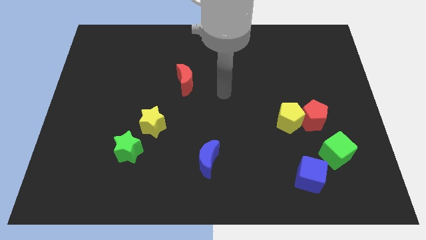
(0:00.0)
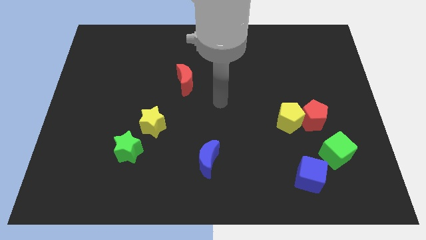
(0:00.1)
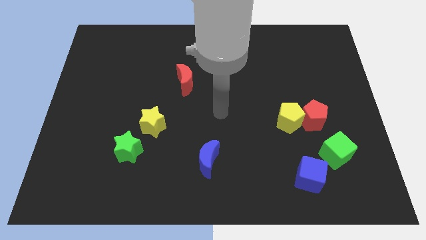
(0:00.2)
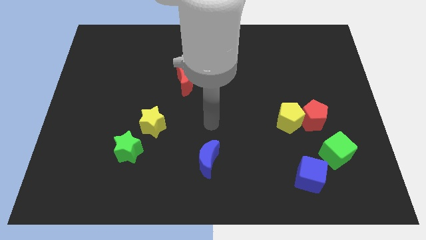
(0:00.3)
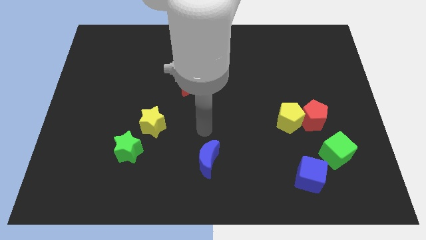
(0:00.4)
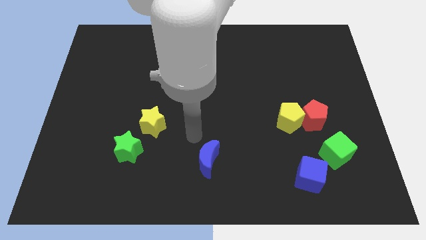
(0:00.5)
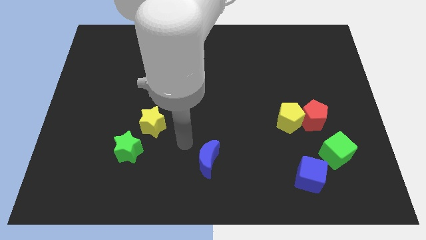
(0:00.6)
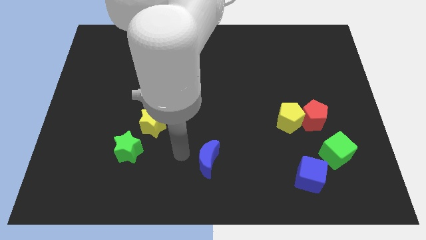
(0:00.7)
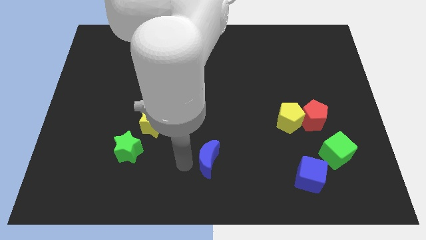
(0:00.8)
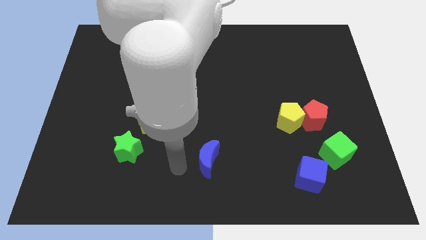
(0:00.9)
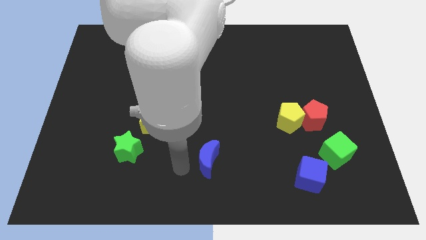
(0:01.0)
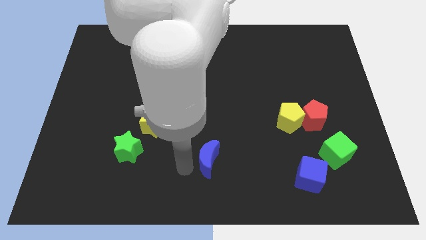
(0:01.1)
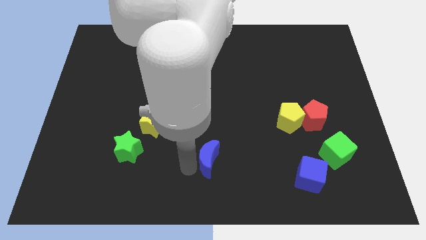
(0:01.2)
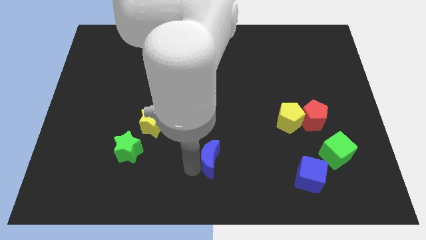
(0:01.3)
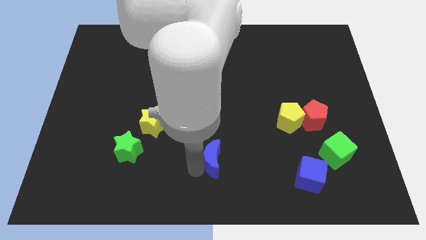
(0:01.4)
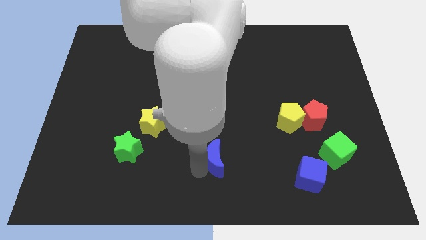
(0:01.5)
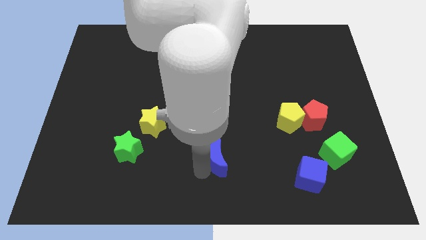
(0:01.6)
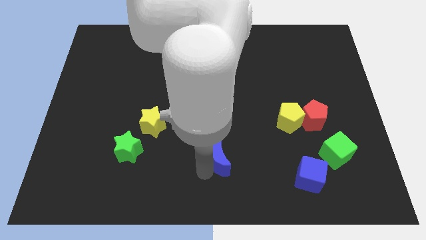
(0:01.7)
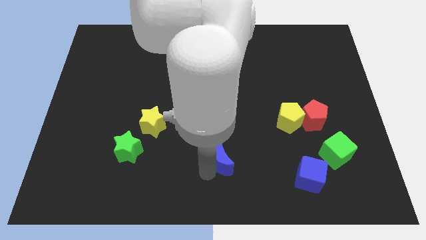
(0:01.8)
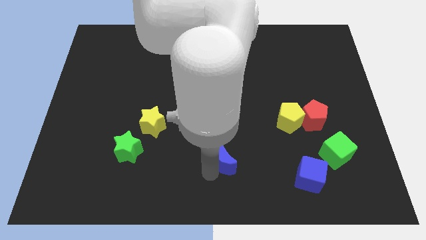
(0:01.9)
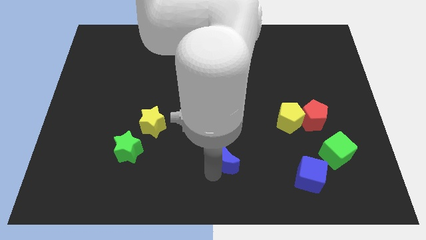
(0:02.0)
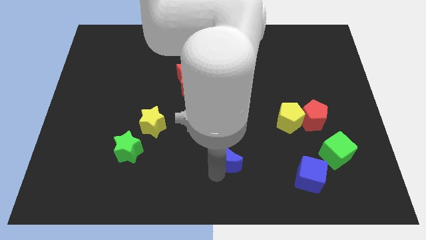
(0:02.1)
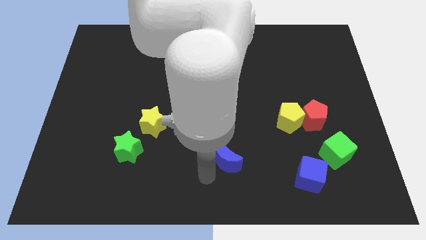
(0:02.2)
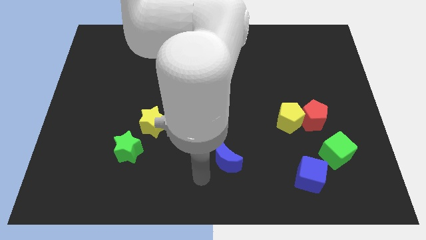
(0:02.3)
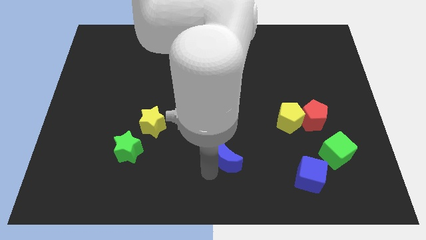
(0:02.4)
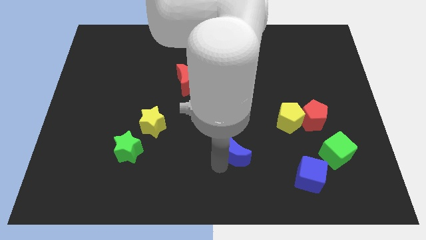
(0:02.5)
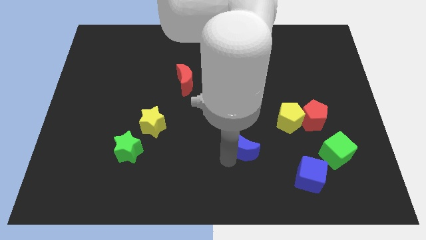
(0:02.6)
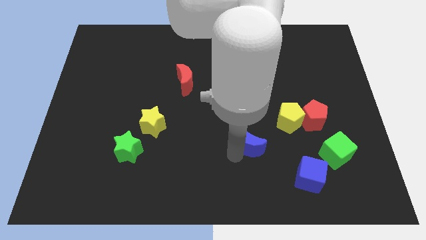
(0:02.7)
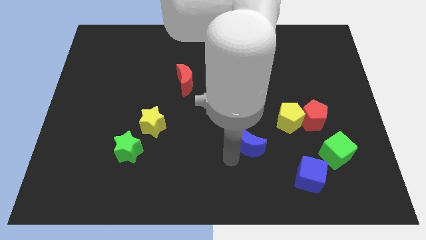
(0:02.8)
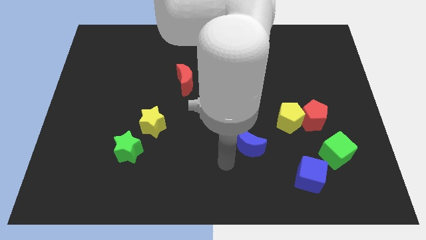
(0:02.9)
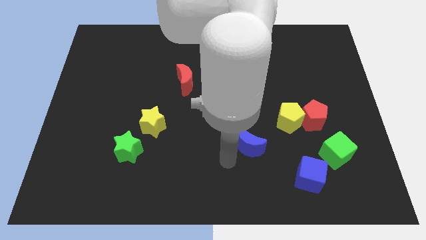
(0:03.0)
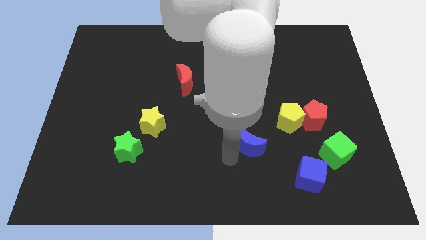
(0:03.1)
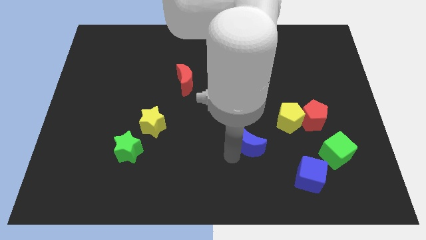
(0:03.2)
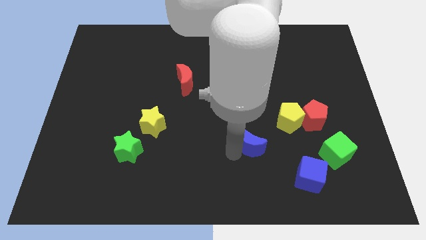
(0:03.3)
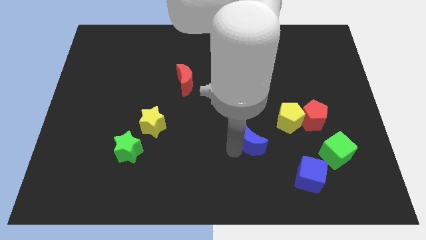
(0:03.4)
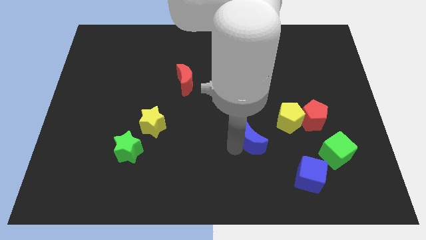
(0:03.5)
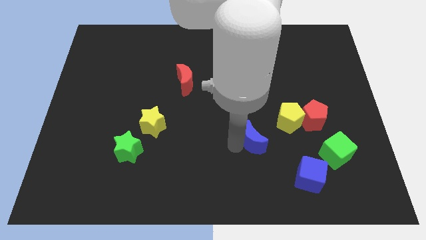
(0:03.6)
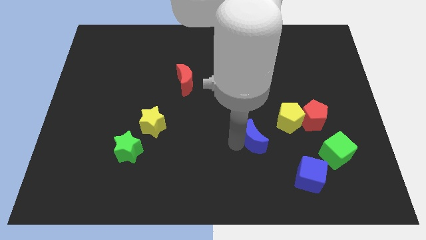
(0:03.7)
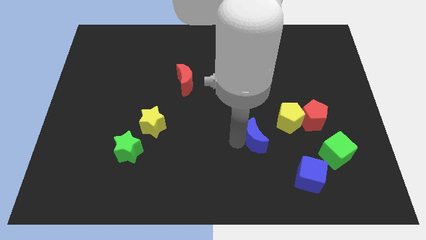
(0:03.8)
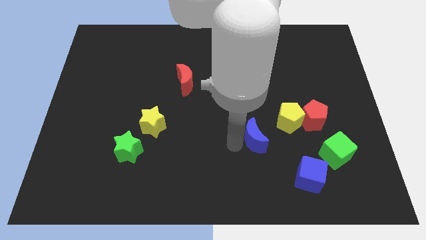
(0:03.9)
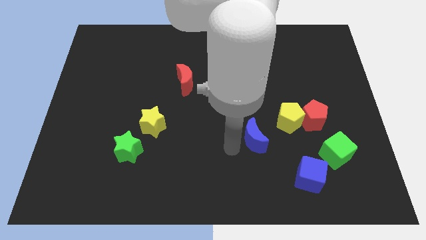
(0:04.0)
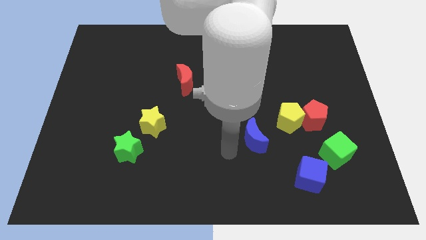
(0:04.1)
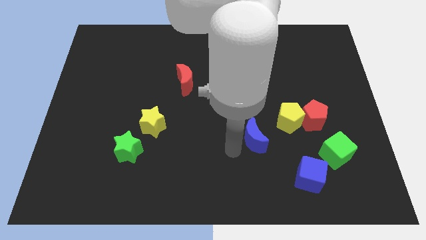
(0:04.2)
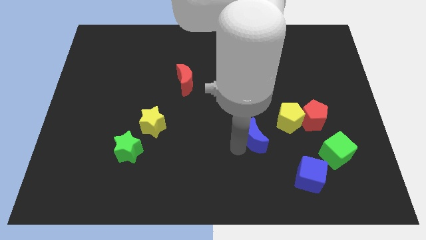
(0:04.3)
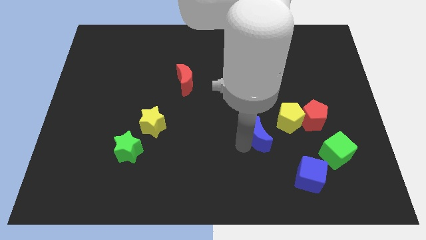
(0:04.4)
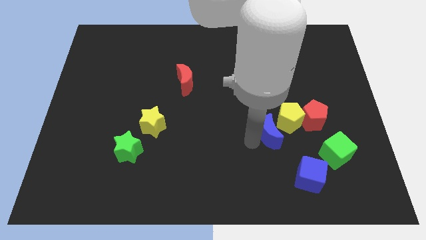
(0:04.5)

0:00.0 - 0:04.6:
move the blue moon to the yellow pentagon

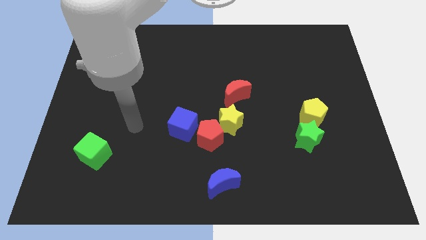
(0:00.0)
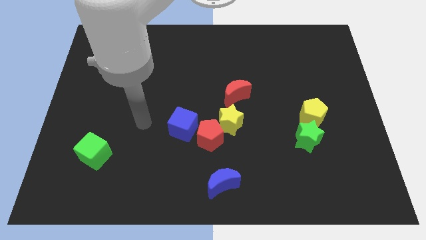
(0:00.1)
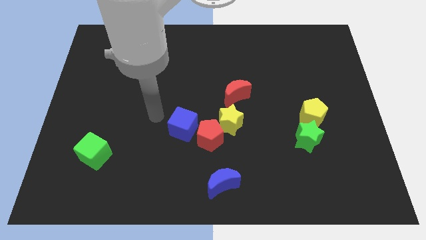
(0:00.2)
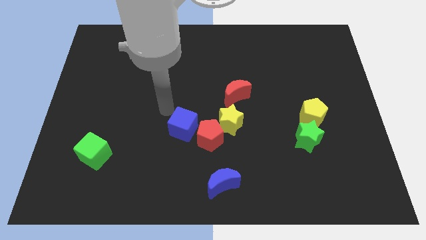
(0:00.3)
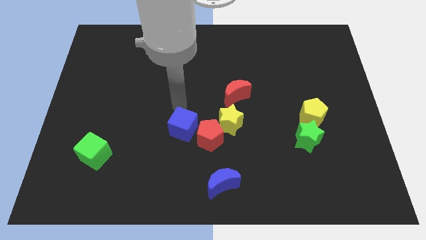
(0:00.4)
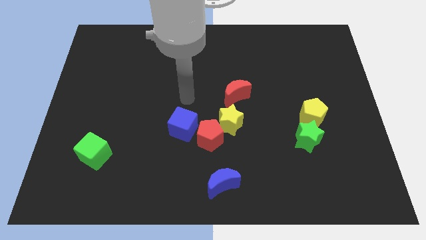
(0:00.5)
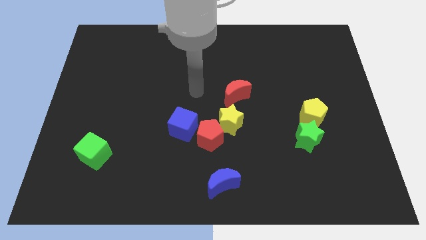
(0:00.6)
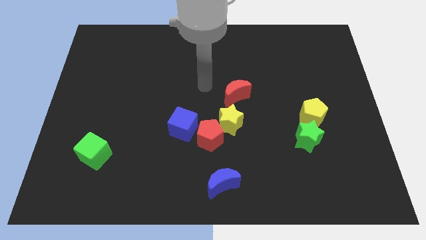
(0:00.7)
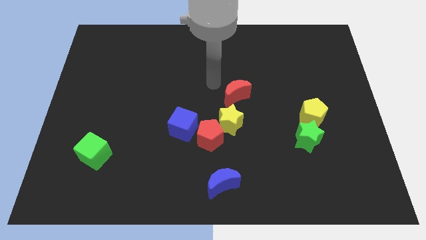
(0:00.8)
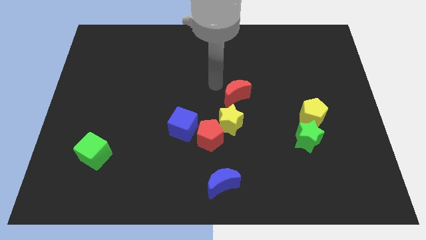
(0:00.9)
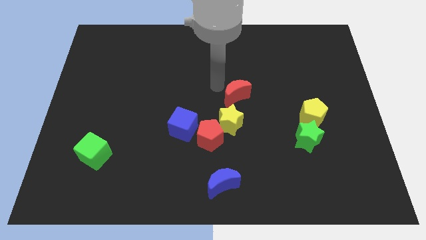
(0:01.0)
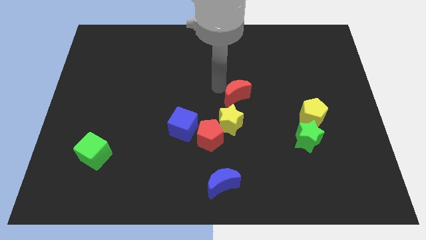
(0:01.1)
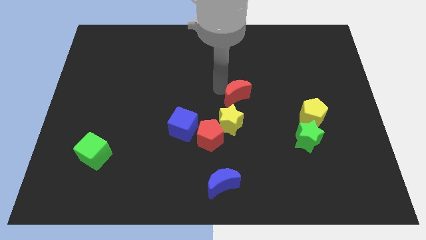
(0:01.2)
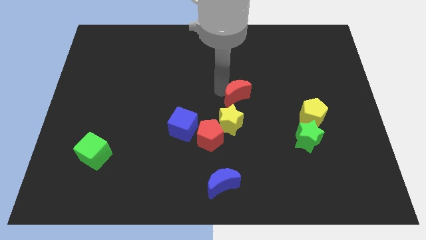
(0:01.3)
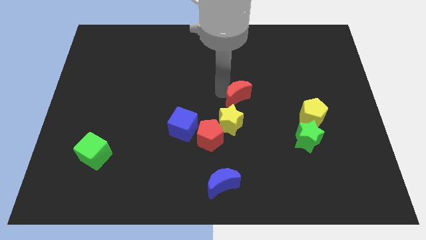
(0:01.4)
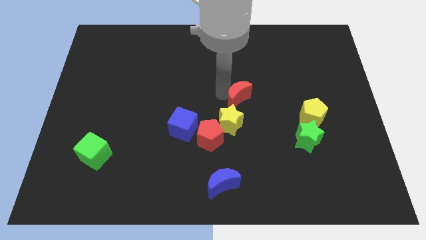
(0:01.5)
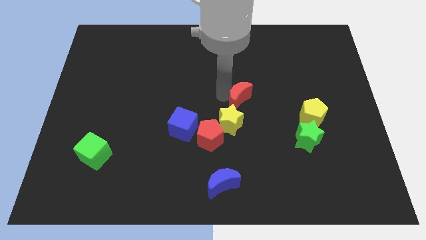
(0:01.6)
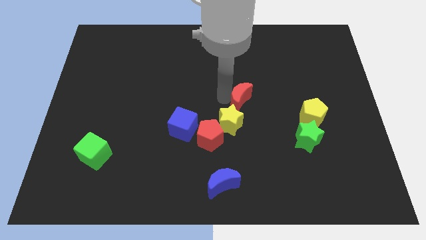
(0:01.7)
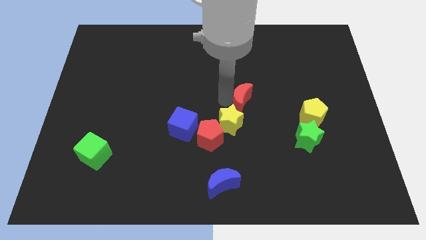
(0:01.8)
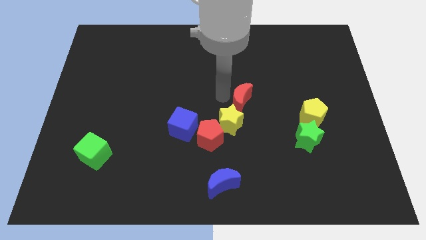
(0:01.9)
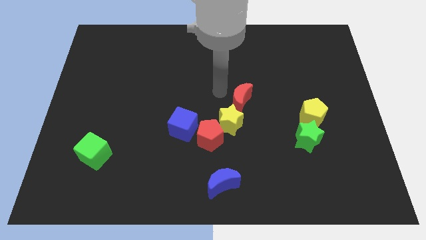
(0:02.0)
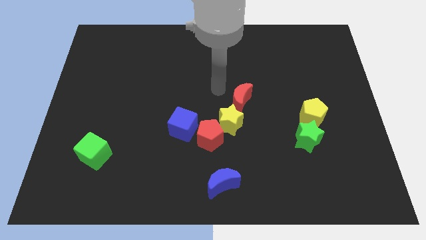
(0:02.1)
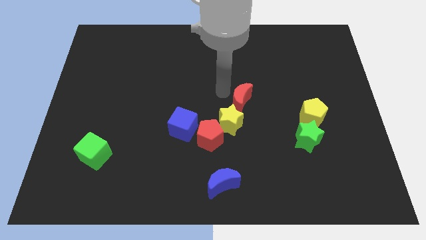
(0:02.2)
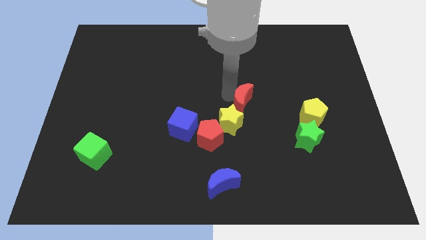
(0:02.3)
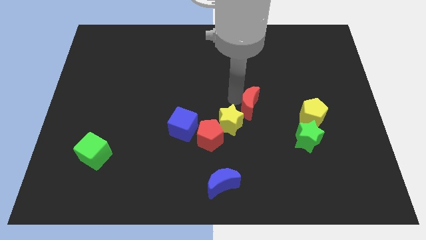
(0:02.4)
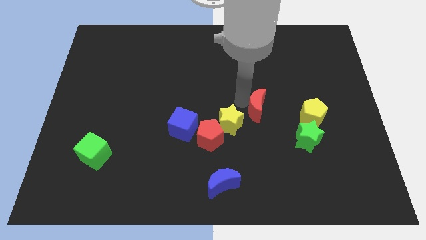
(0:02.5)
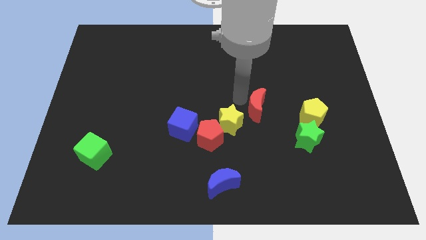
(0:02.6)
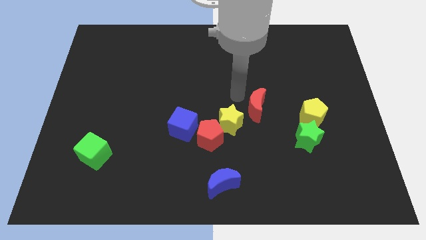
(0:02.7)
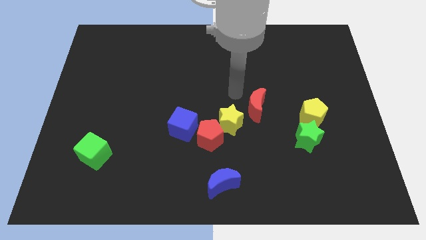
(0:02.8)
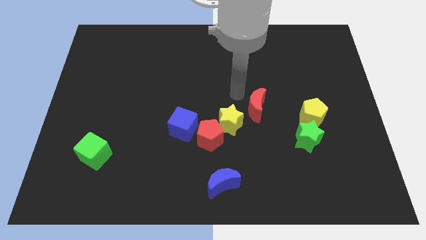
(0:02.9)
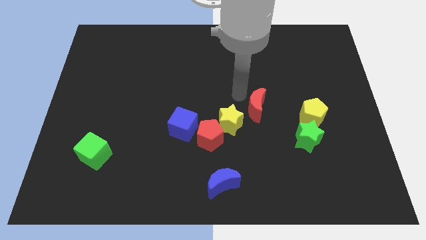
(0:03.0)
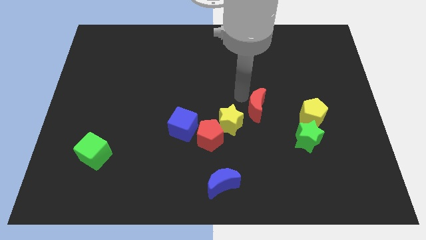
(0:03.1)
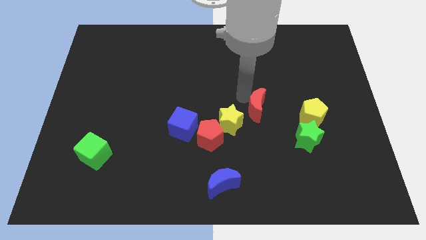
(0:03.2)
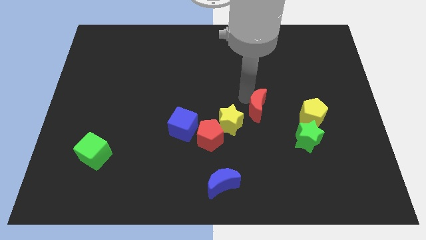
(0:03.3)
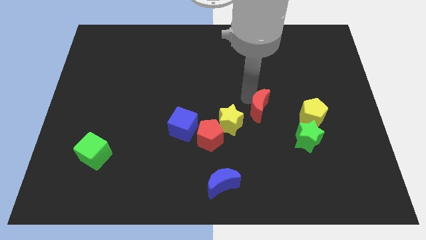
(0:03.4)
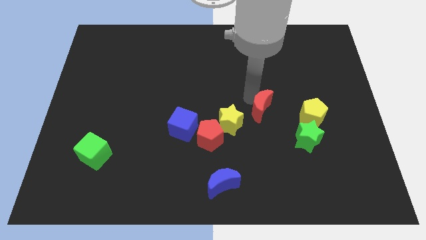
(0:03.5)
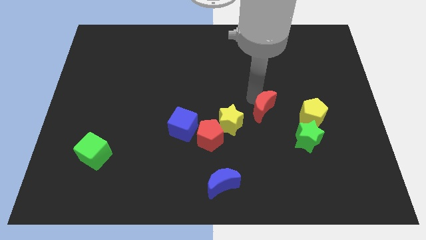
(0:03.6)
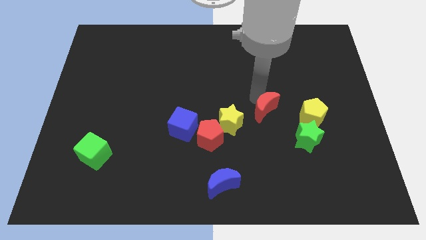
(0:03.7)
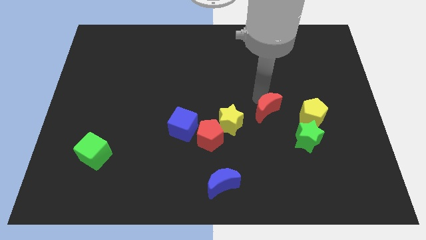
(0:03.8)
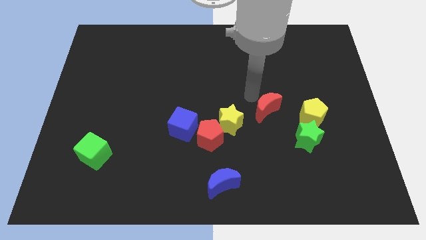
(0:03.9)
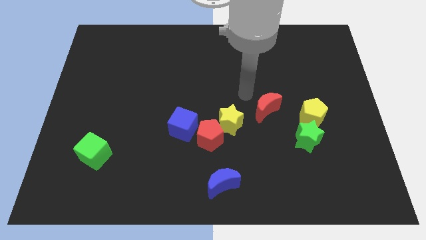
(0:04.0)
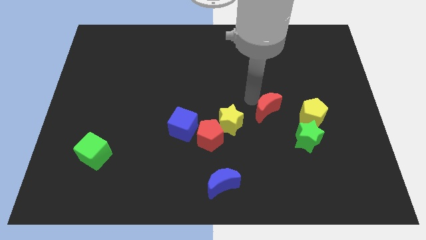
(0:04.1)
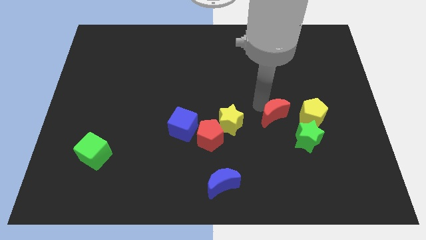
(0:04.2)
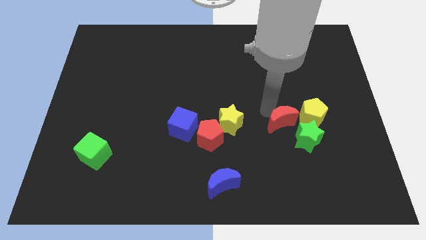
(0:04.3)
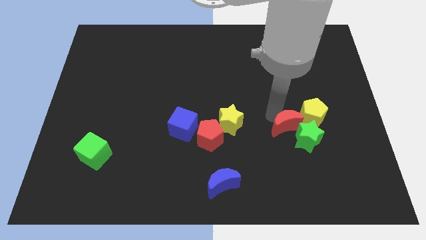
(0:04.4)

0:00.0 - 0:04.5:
slide the red moon towards the green star
